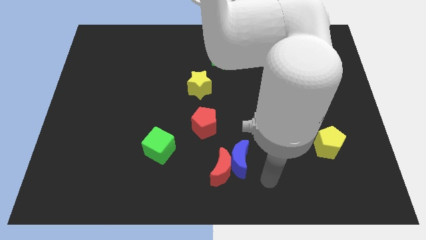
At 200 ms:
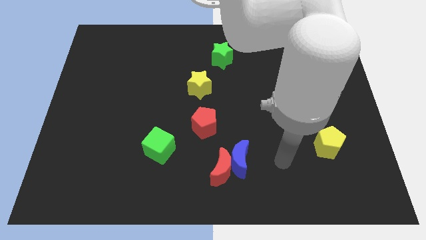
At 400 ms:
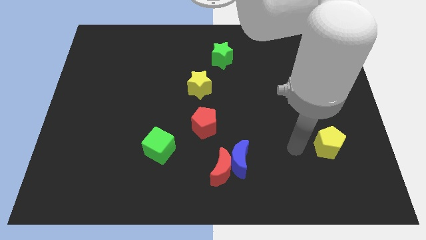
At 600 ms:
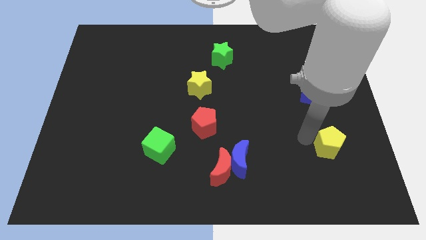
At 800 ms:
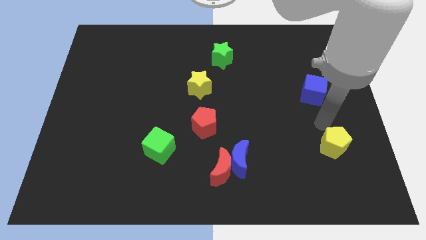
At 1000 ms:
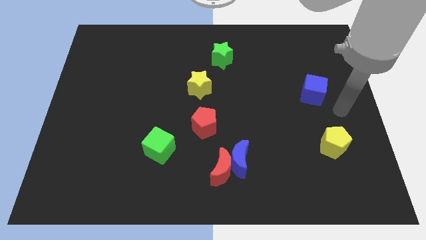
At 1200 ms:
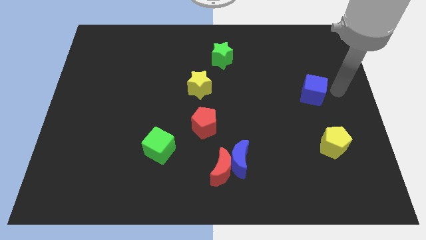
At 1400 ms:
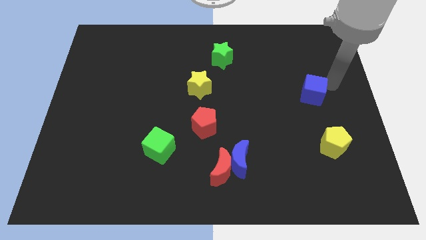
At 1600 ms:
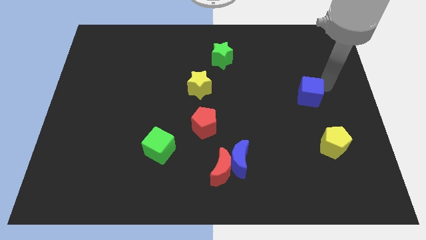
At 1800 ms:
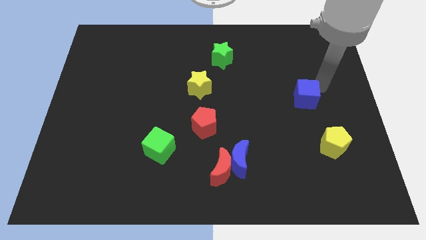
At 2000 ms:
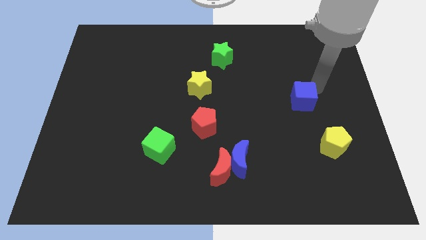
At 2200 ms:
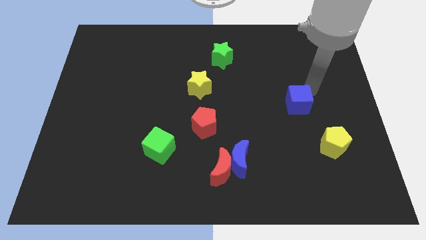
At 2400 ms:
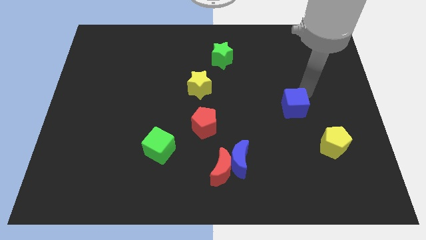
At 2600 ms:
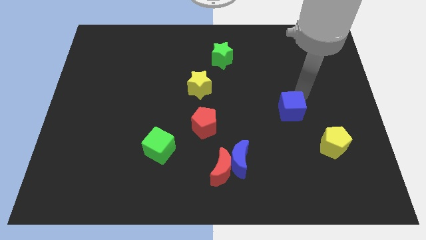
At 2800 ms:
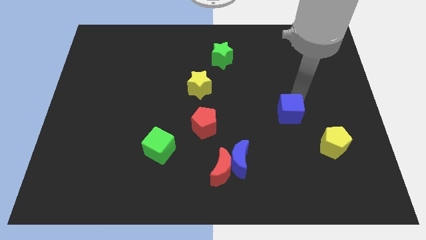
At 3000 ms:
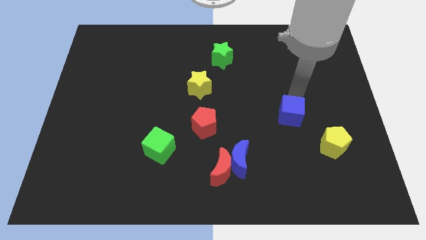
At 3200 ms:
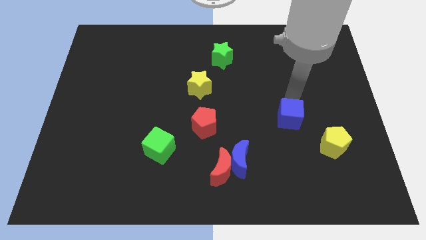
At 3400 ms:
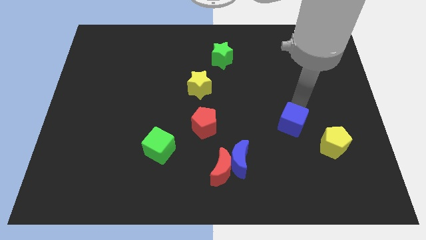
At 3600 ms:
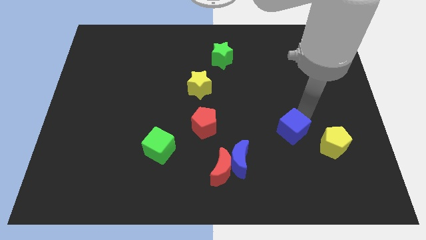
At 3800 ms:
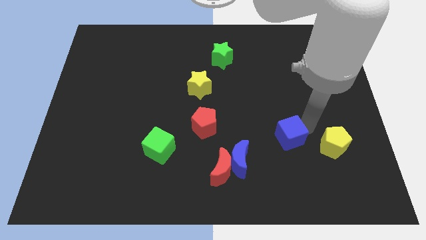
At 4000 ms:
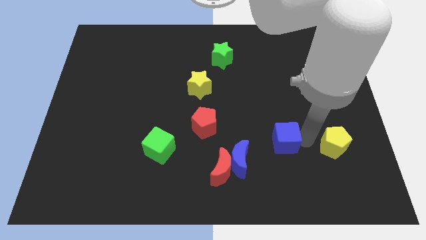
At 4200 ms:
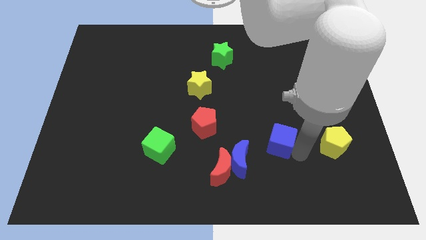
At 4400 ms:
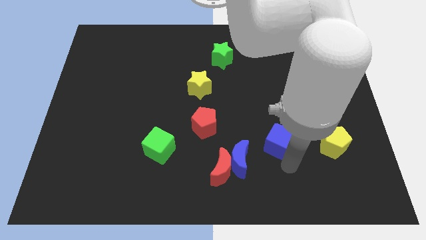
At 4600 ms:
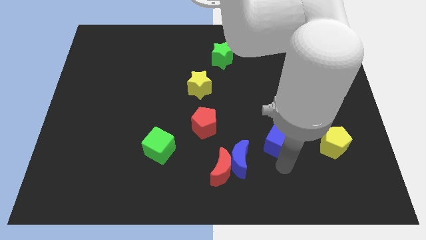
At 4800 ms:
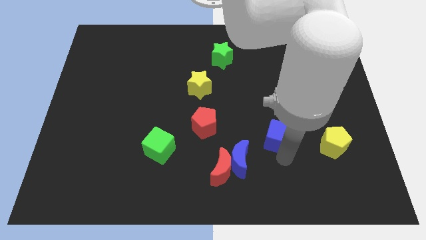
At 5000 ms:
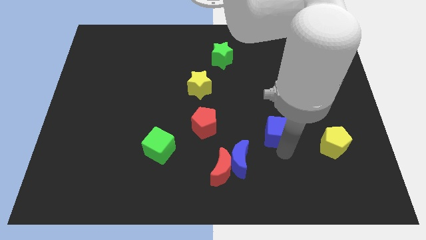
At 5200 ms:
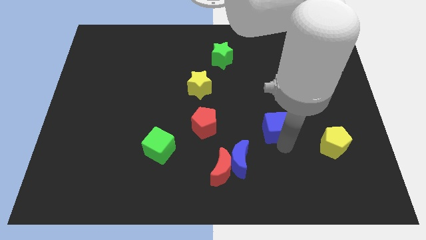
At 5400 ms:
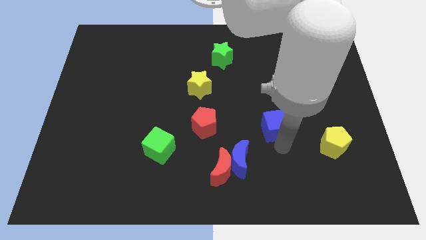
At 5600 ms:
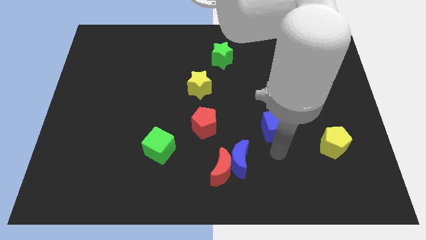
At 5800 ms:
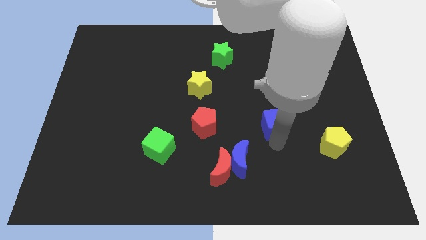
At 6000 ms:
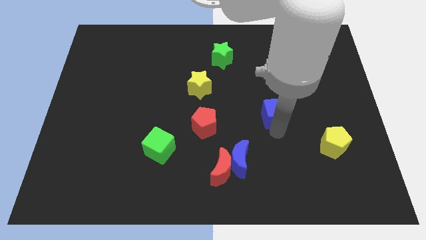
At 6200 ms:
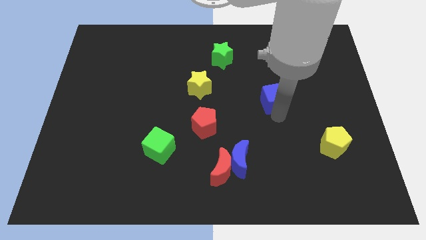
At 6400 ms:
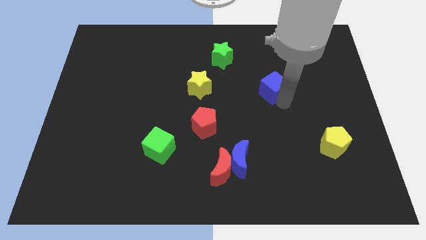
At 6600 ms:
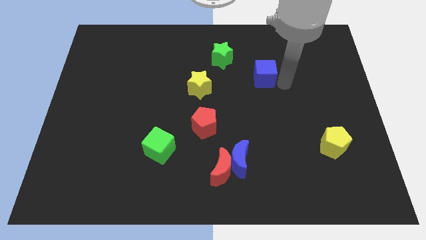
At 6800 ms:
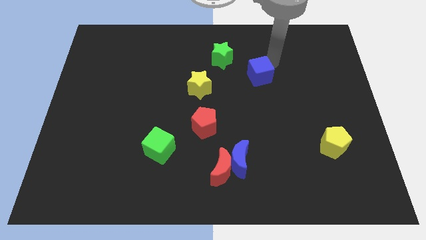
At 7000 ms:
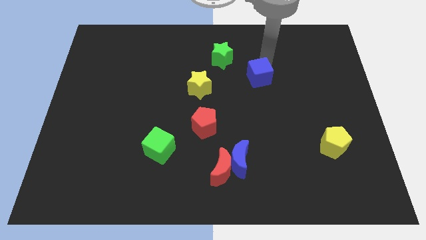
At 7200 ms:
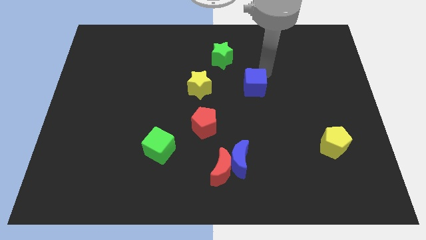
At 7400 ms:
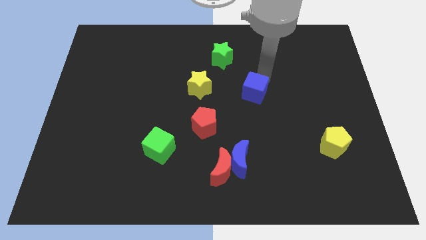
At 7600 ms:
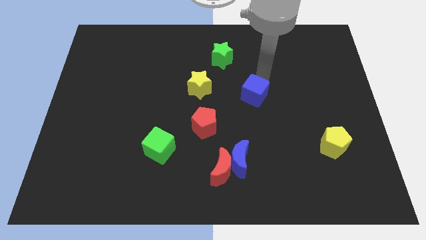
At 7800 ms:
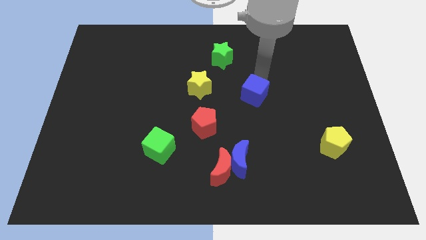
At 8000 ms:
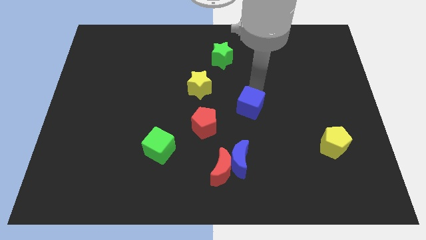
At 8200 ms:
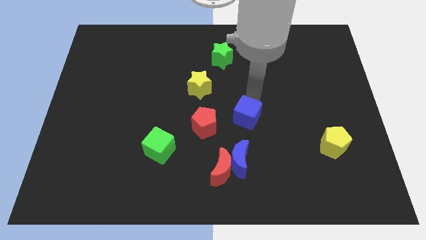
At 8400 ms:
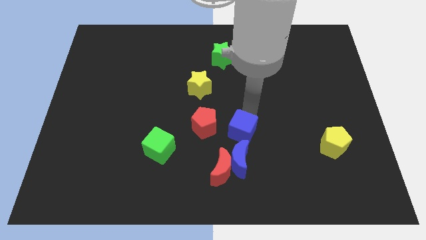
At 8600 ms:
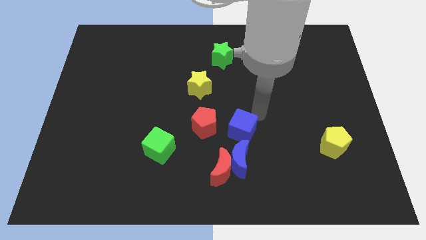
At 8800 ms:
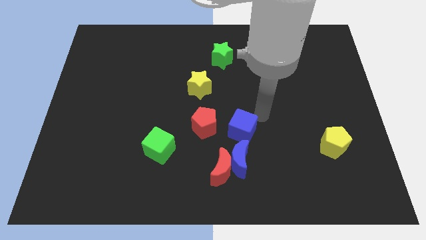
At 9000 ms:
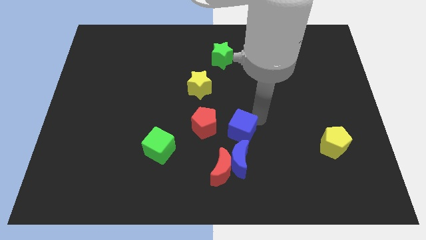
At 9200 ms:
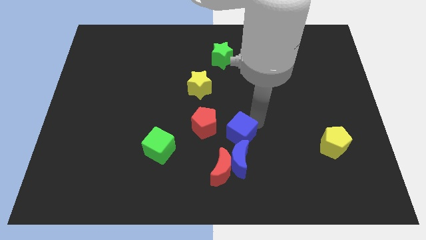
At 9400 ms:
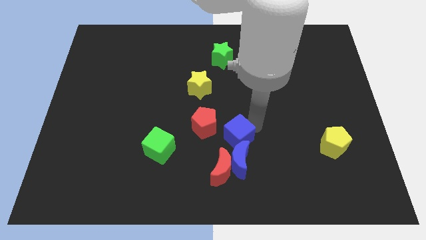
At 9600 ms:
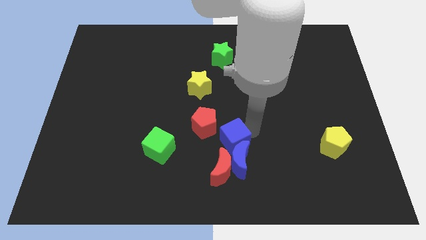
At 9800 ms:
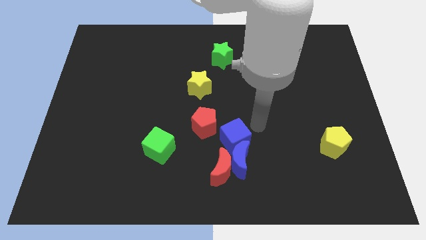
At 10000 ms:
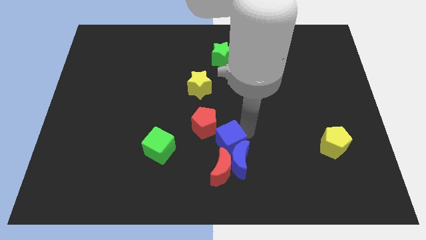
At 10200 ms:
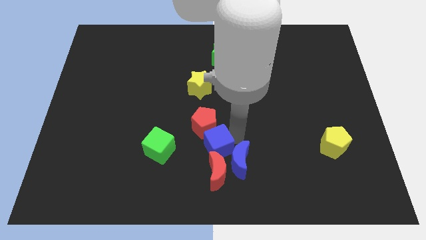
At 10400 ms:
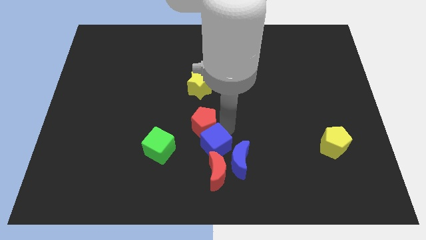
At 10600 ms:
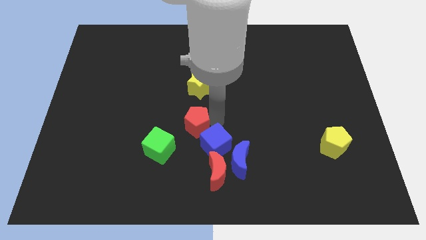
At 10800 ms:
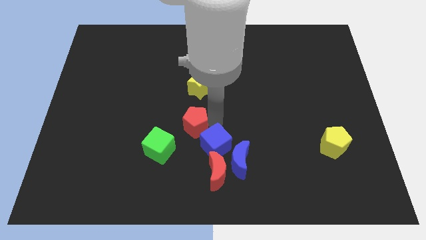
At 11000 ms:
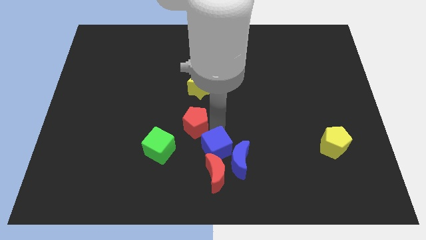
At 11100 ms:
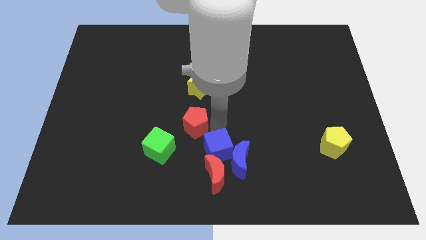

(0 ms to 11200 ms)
push the blue cube close to the red moon

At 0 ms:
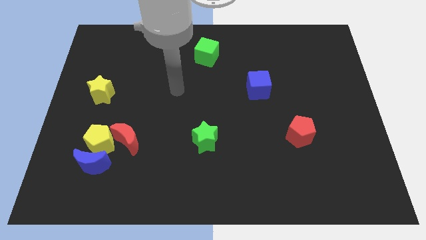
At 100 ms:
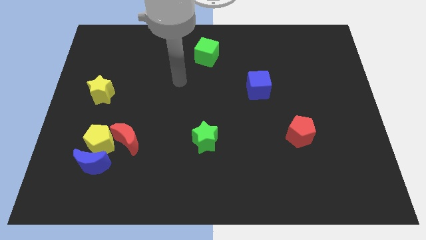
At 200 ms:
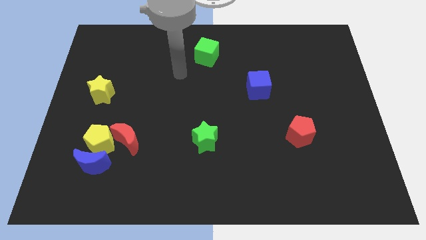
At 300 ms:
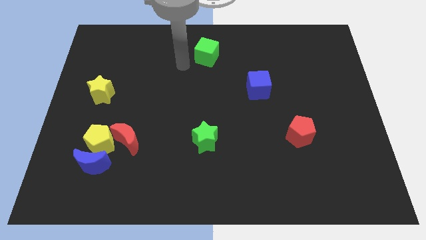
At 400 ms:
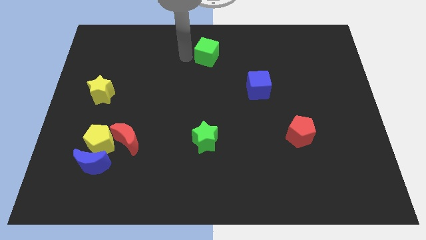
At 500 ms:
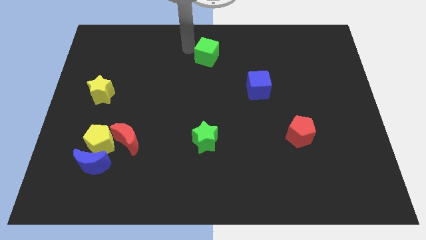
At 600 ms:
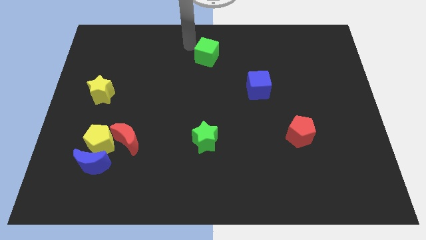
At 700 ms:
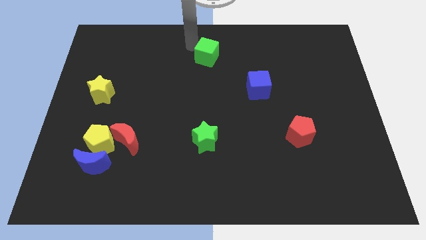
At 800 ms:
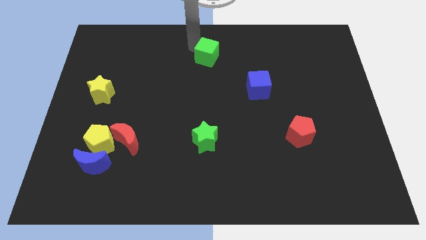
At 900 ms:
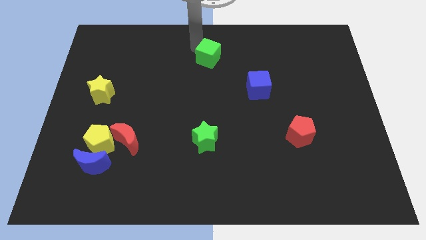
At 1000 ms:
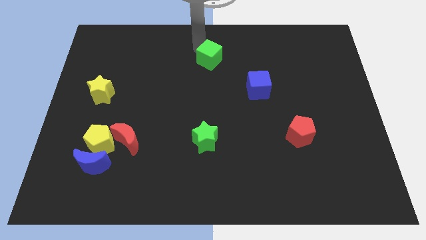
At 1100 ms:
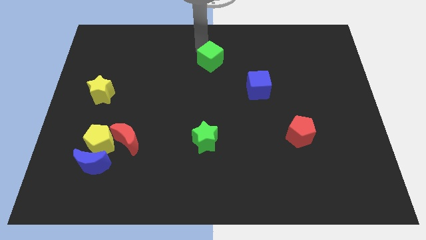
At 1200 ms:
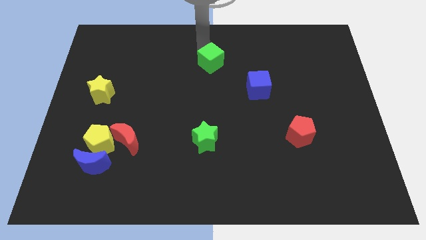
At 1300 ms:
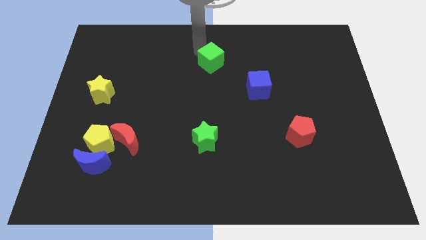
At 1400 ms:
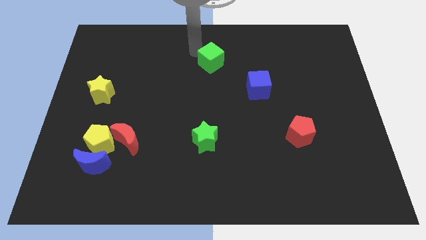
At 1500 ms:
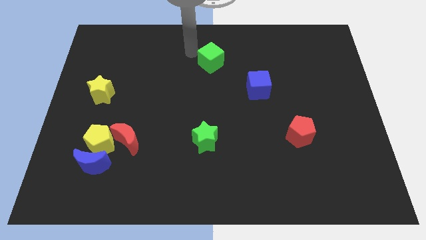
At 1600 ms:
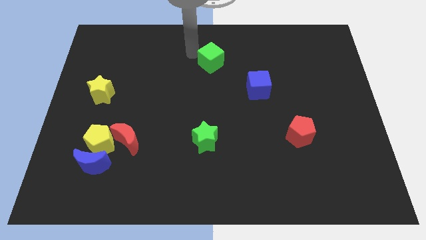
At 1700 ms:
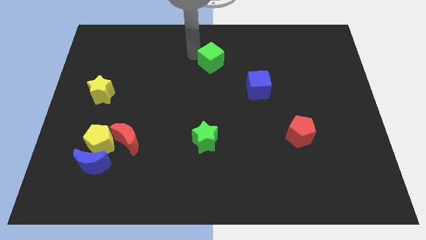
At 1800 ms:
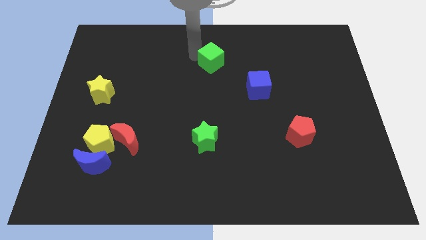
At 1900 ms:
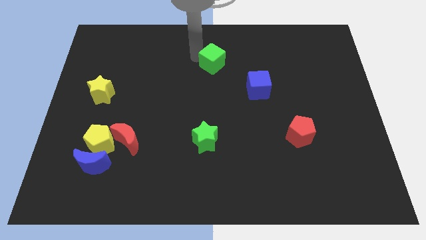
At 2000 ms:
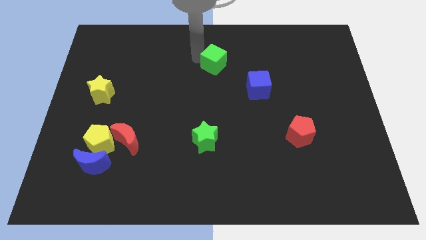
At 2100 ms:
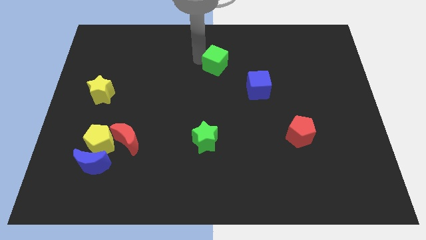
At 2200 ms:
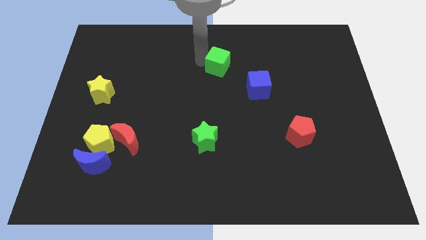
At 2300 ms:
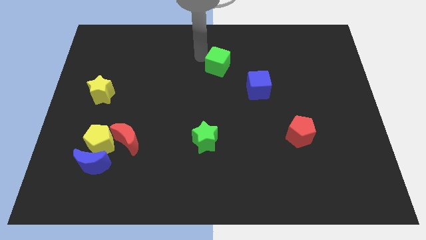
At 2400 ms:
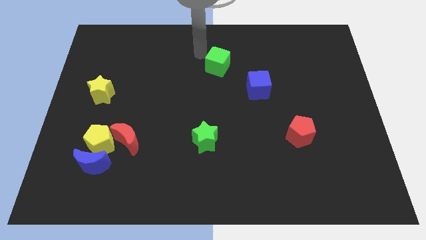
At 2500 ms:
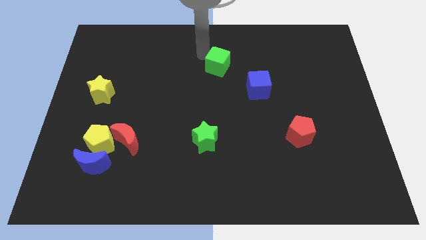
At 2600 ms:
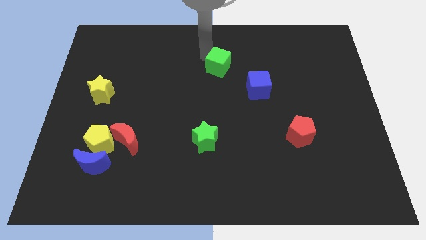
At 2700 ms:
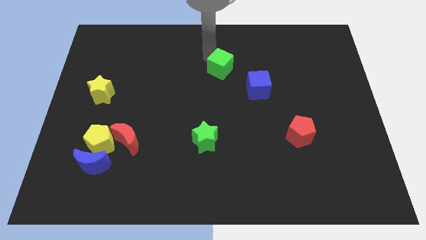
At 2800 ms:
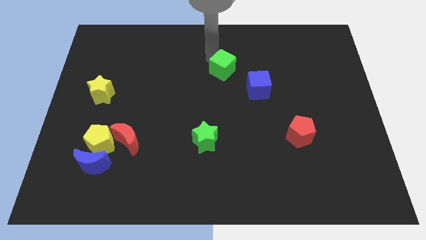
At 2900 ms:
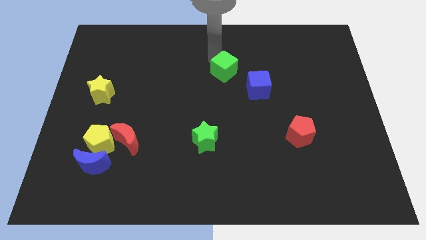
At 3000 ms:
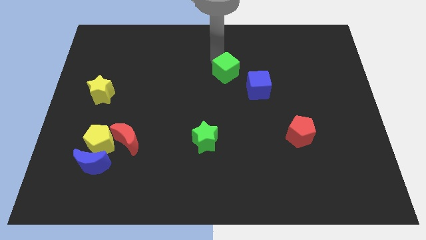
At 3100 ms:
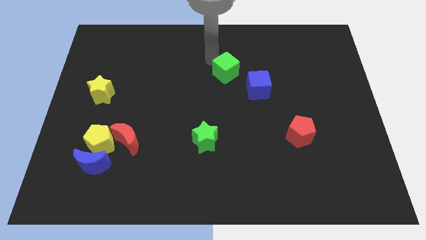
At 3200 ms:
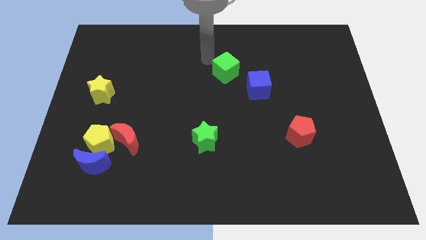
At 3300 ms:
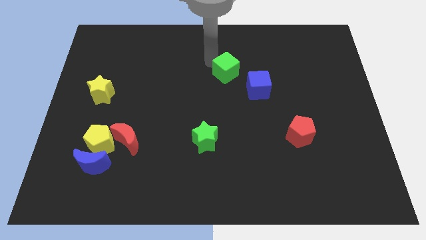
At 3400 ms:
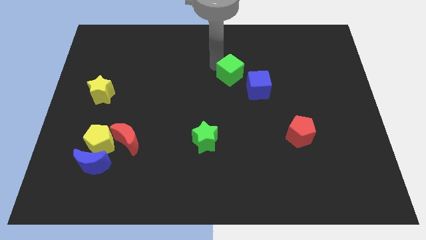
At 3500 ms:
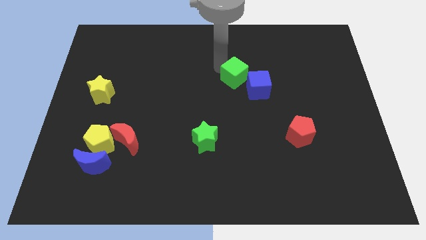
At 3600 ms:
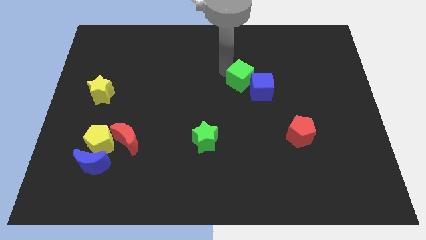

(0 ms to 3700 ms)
put the green cube close to the blue cube
